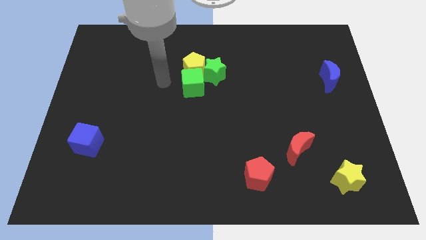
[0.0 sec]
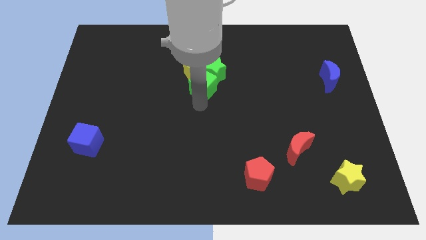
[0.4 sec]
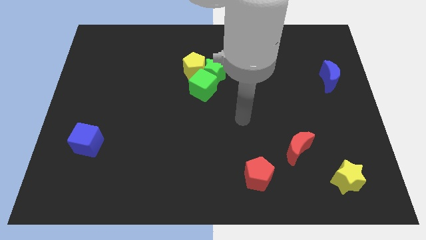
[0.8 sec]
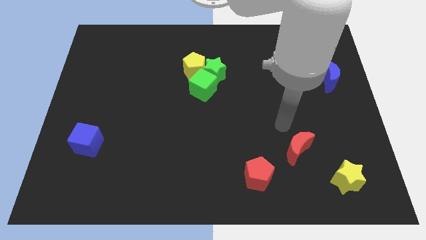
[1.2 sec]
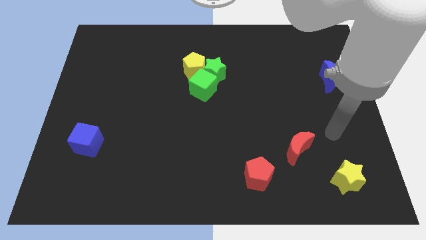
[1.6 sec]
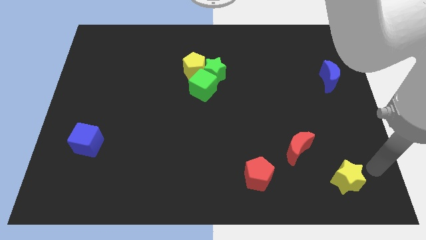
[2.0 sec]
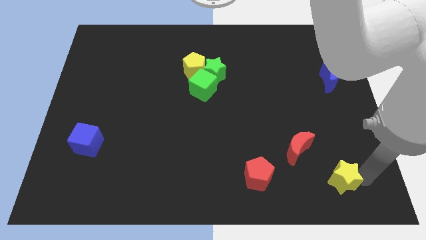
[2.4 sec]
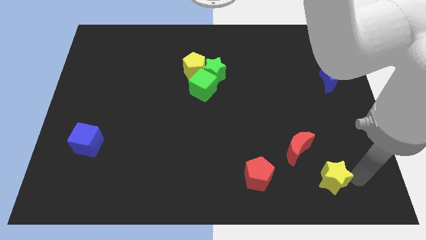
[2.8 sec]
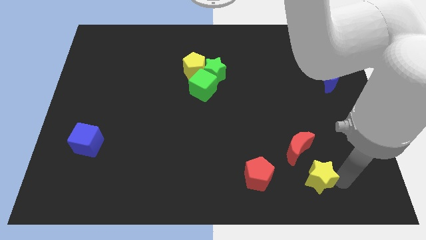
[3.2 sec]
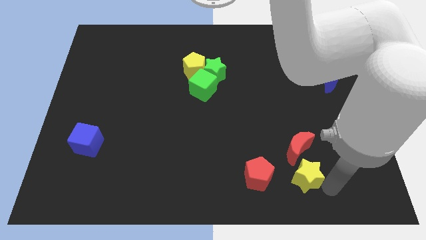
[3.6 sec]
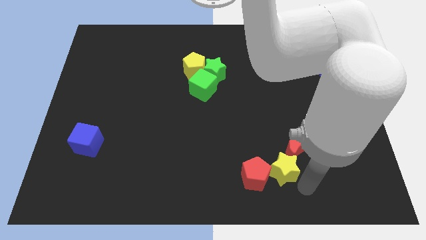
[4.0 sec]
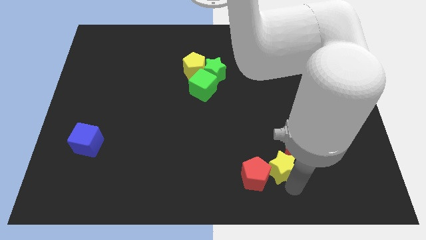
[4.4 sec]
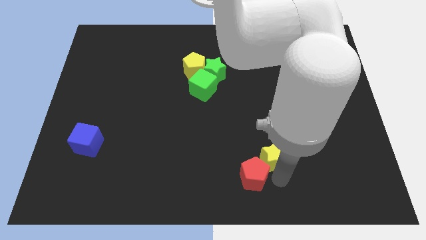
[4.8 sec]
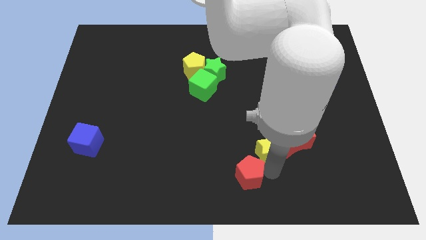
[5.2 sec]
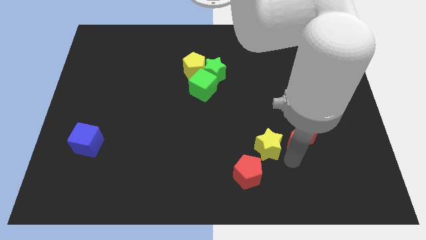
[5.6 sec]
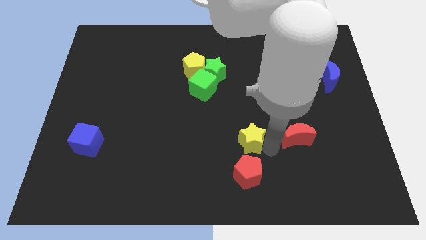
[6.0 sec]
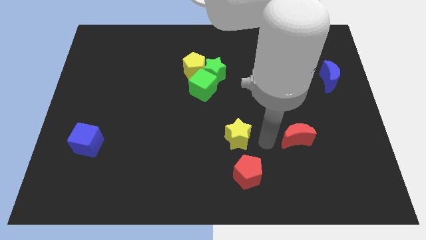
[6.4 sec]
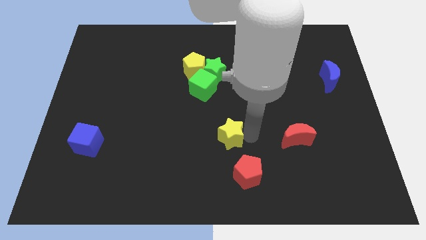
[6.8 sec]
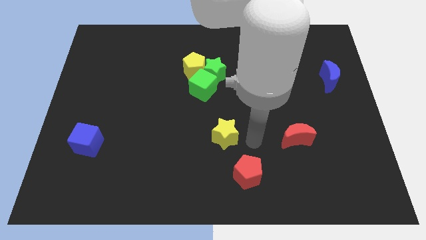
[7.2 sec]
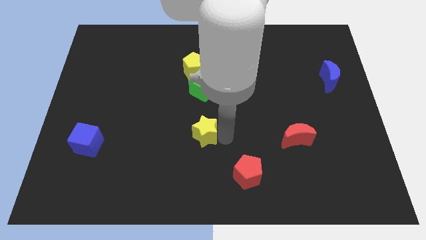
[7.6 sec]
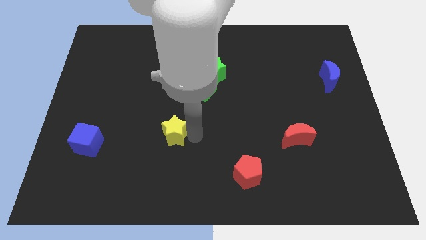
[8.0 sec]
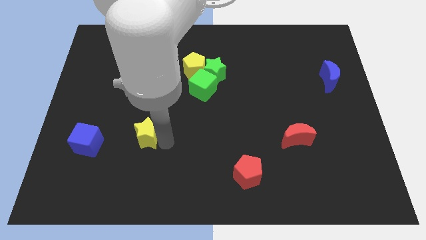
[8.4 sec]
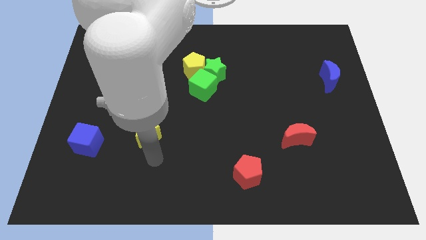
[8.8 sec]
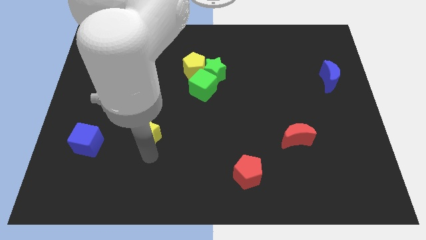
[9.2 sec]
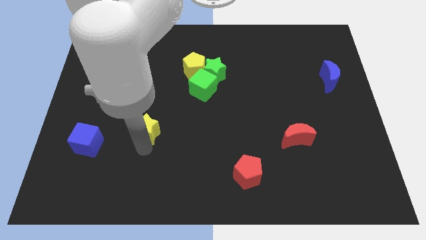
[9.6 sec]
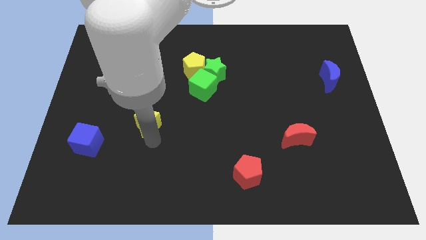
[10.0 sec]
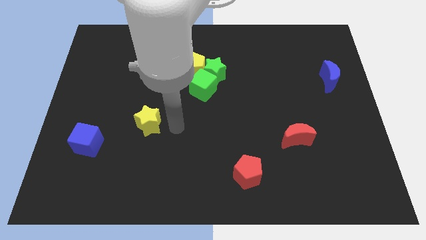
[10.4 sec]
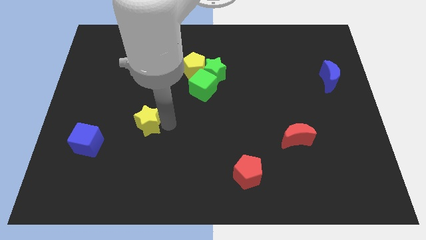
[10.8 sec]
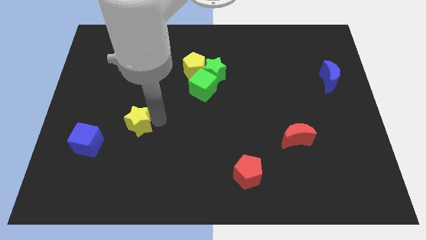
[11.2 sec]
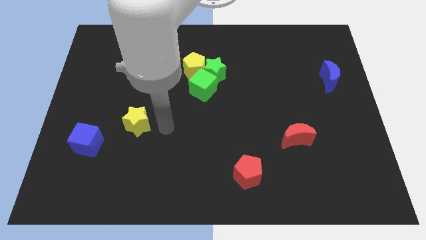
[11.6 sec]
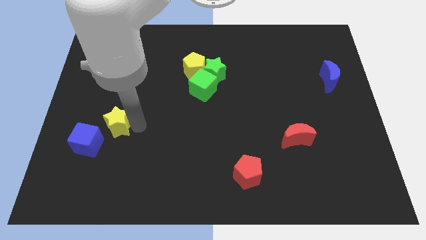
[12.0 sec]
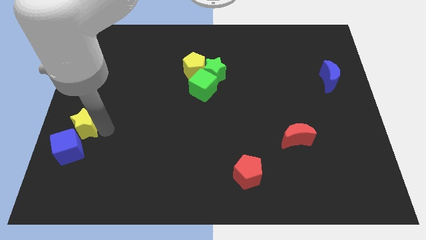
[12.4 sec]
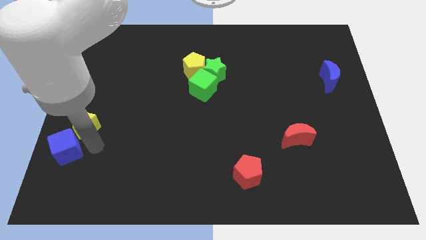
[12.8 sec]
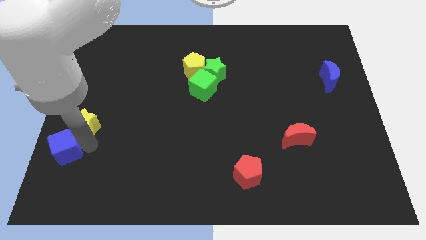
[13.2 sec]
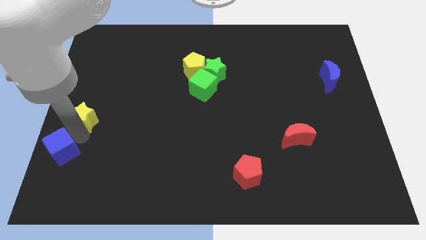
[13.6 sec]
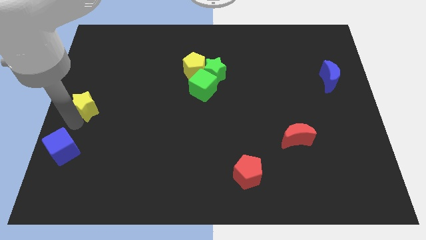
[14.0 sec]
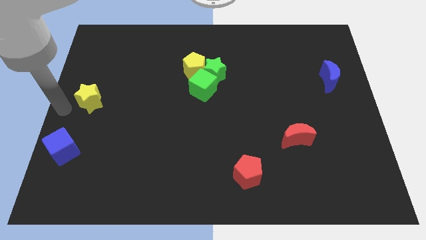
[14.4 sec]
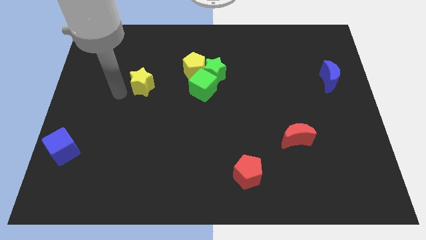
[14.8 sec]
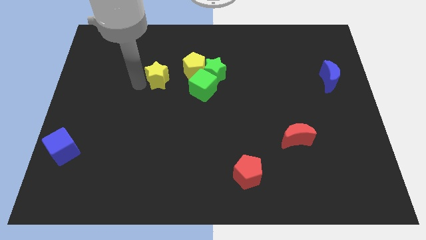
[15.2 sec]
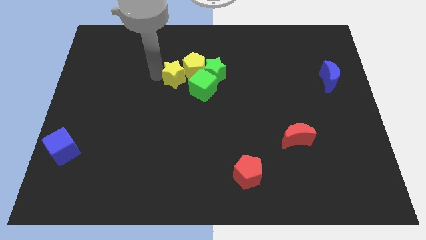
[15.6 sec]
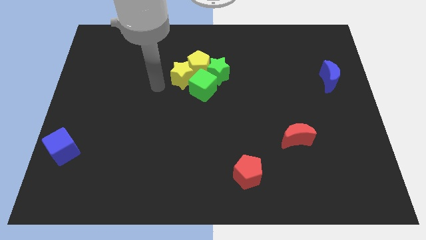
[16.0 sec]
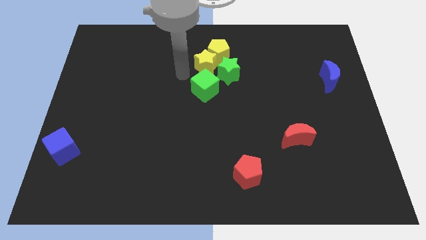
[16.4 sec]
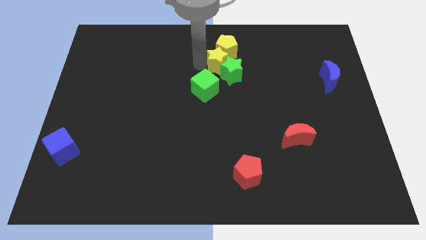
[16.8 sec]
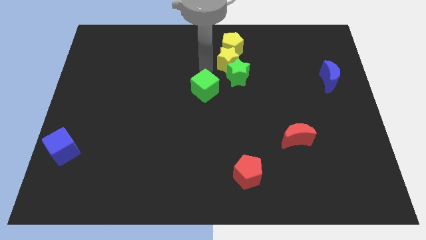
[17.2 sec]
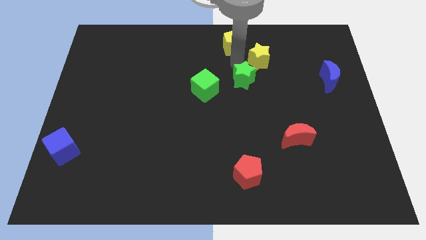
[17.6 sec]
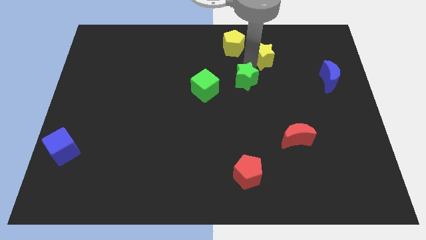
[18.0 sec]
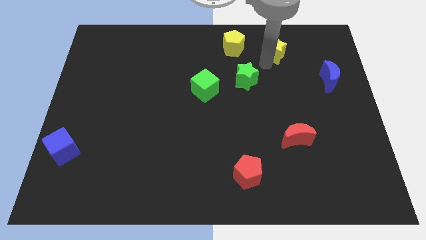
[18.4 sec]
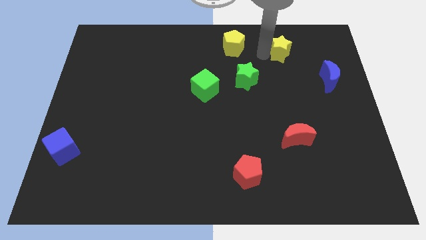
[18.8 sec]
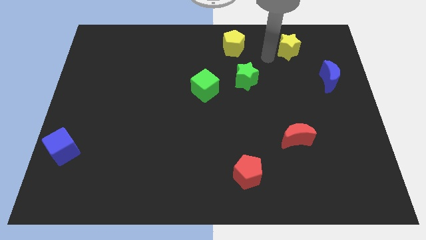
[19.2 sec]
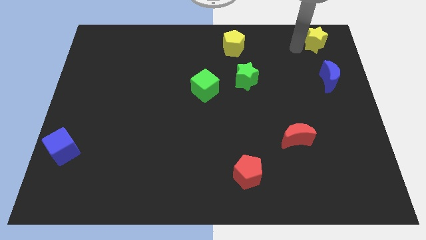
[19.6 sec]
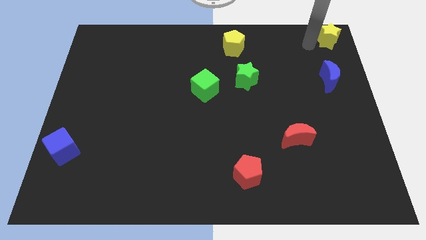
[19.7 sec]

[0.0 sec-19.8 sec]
push the yellow star to the top right corner

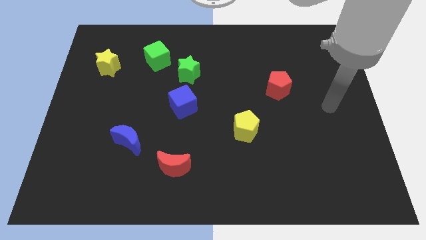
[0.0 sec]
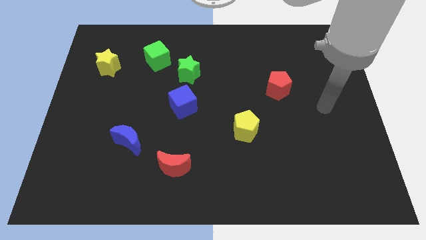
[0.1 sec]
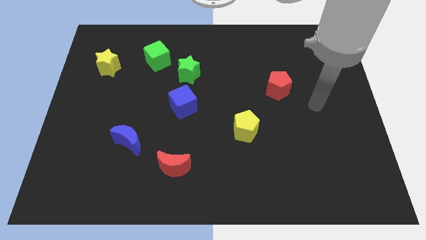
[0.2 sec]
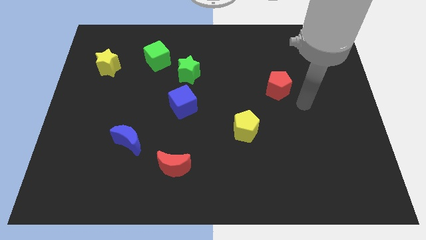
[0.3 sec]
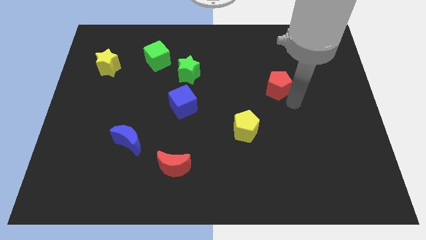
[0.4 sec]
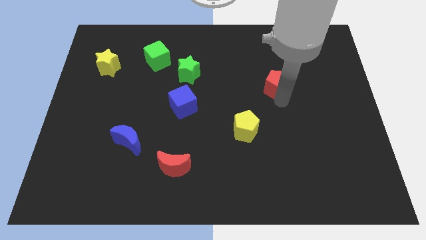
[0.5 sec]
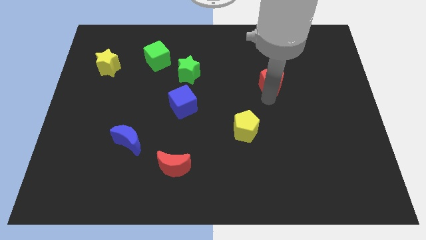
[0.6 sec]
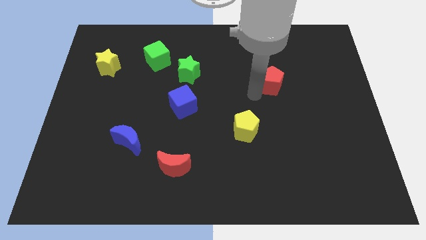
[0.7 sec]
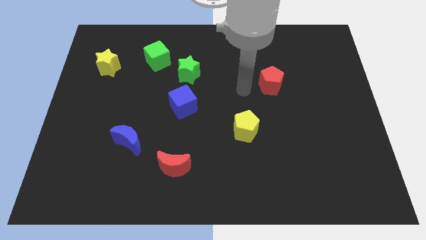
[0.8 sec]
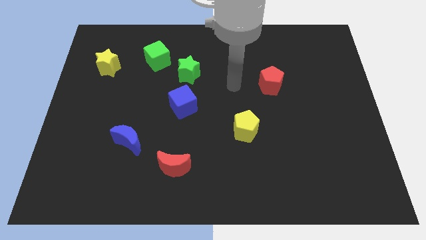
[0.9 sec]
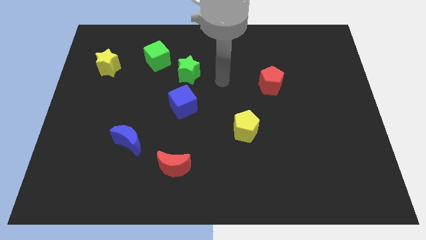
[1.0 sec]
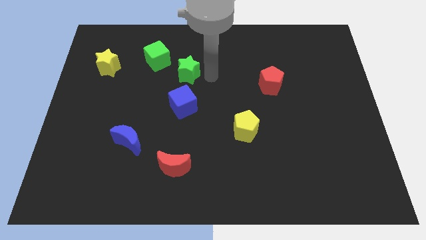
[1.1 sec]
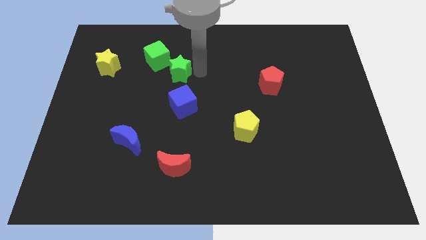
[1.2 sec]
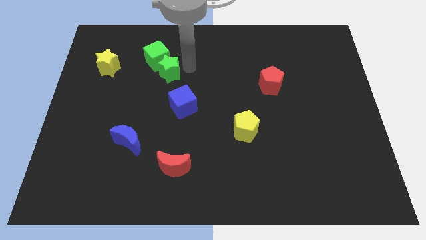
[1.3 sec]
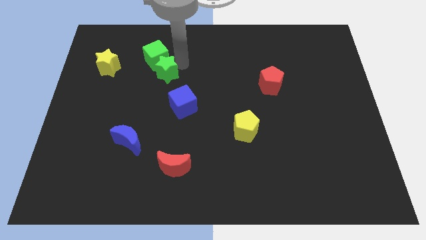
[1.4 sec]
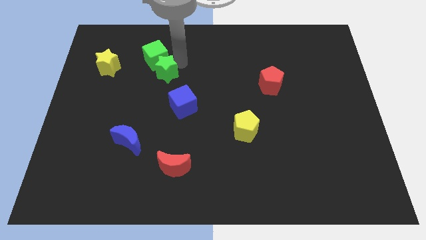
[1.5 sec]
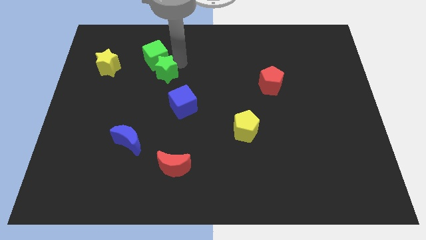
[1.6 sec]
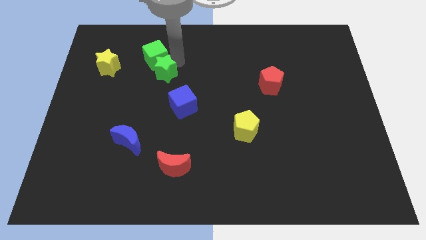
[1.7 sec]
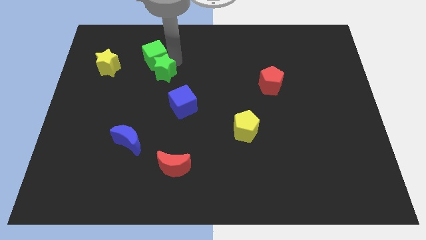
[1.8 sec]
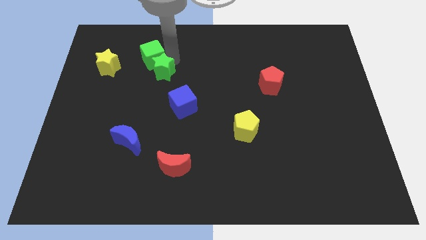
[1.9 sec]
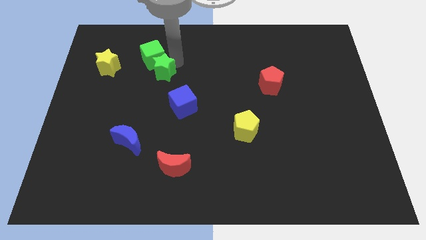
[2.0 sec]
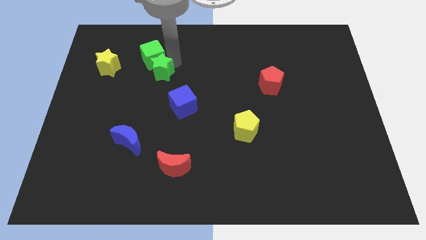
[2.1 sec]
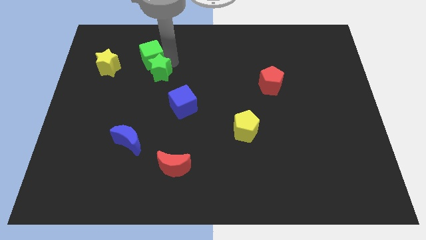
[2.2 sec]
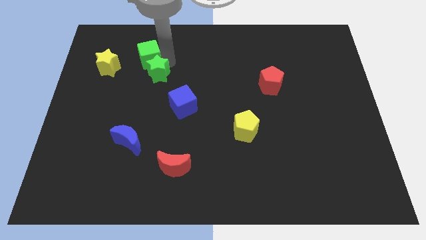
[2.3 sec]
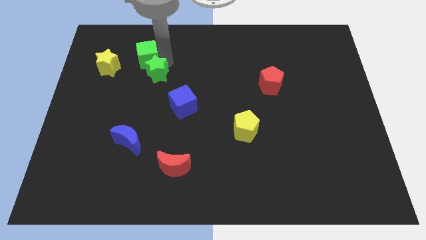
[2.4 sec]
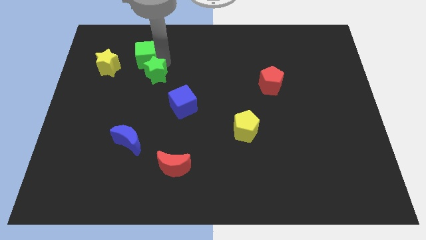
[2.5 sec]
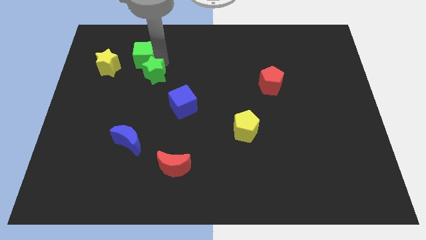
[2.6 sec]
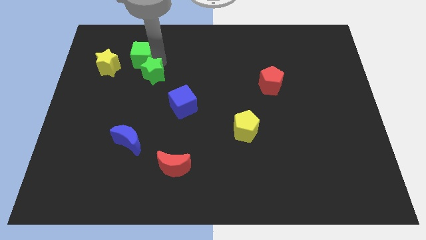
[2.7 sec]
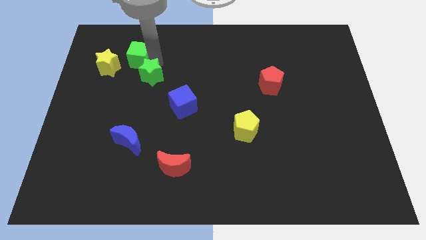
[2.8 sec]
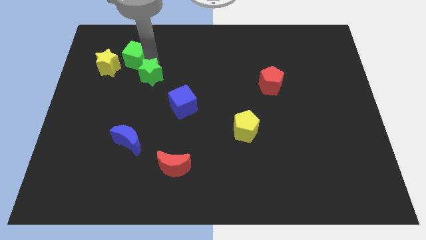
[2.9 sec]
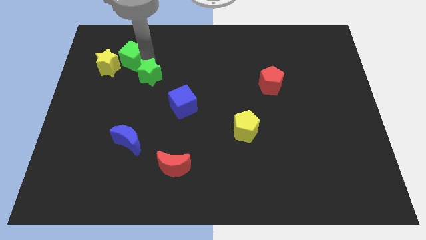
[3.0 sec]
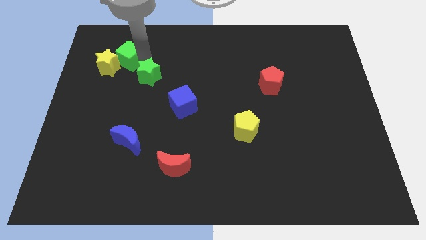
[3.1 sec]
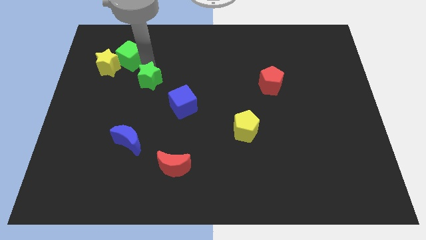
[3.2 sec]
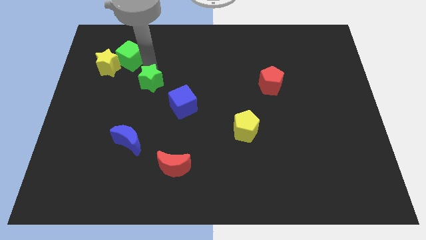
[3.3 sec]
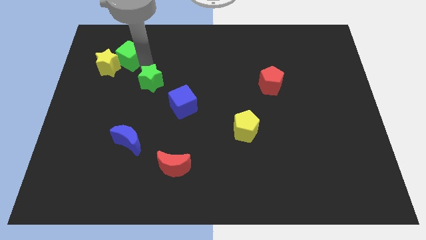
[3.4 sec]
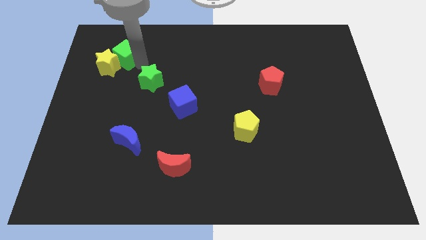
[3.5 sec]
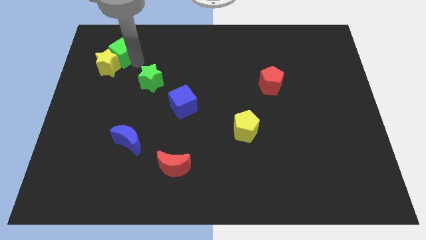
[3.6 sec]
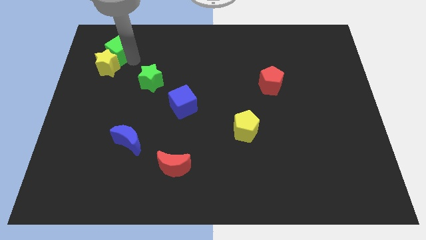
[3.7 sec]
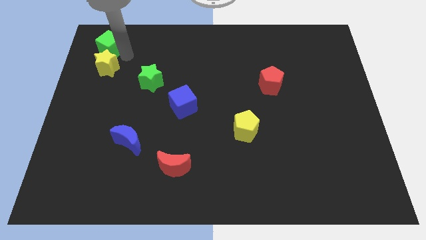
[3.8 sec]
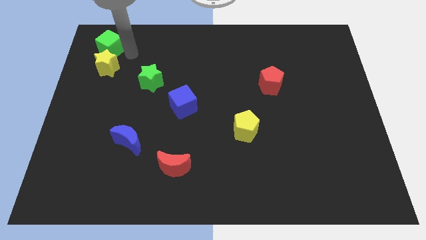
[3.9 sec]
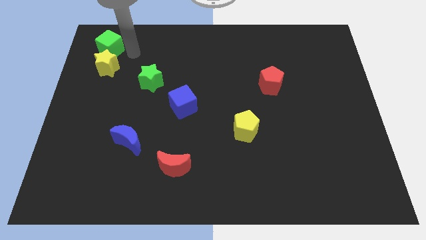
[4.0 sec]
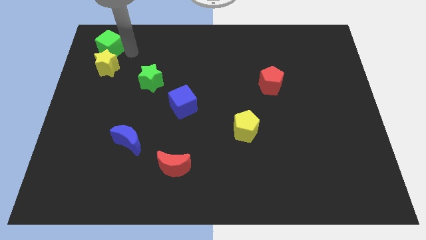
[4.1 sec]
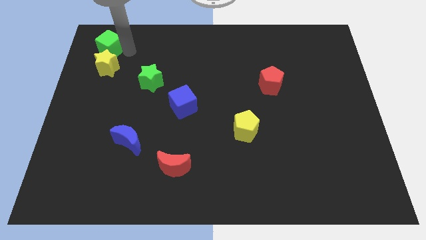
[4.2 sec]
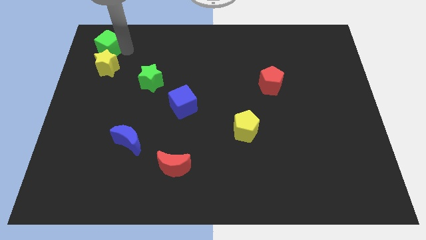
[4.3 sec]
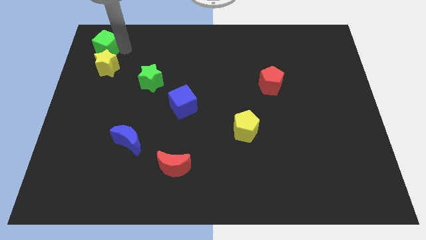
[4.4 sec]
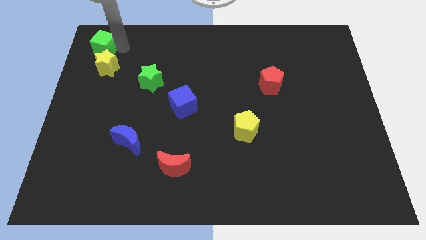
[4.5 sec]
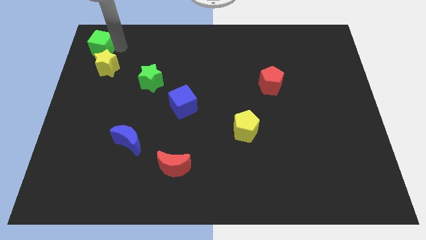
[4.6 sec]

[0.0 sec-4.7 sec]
move the green cube to the top left
